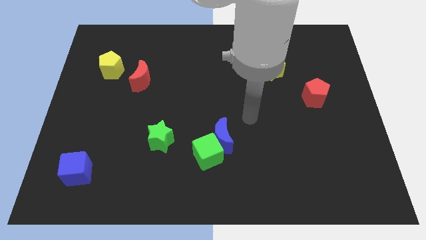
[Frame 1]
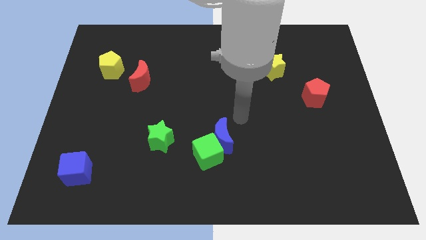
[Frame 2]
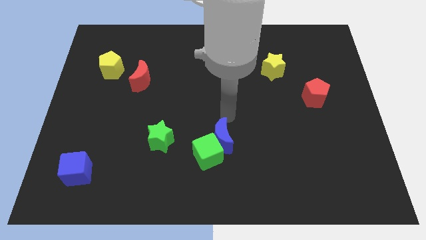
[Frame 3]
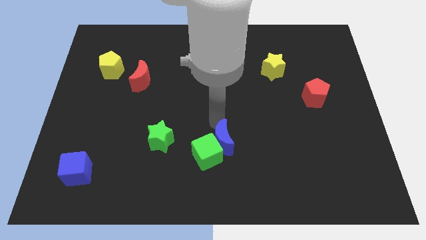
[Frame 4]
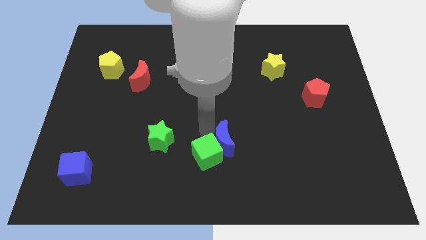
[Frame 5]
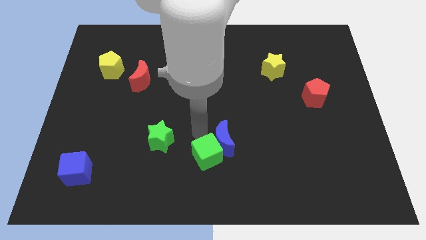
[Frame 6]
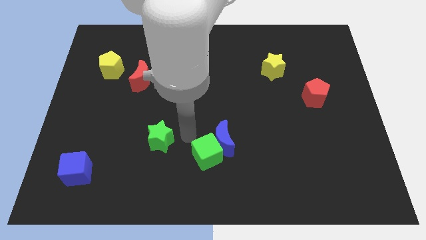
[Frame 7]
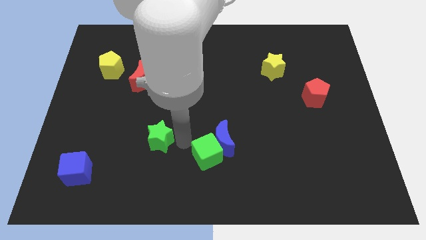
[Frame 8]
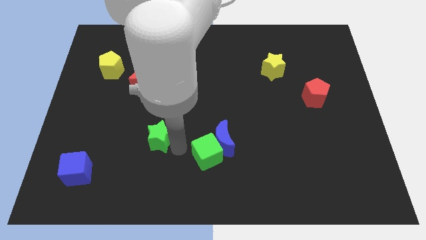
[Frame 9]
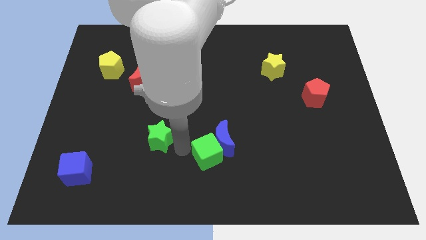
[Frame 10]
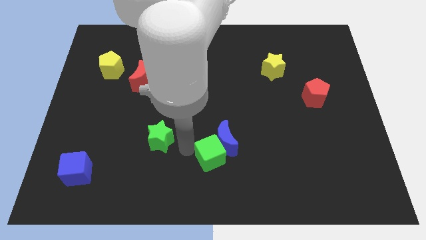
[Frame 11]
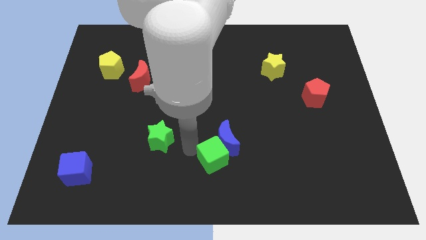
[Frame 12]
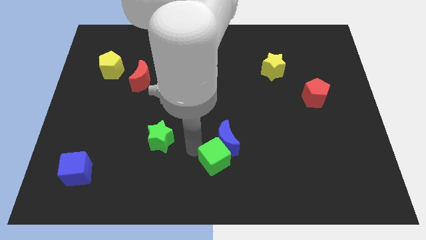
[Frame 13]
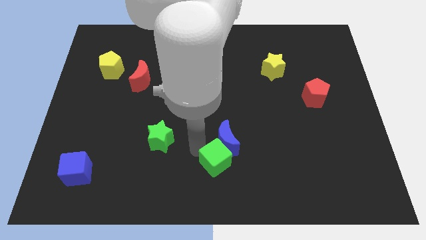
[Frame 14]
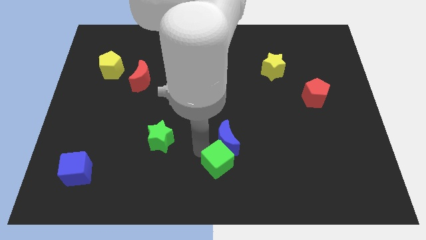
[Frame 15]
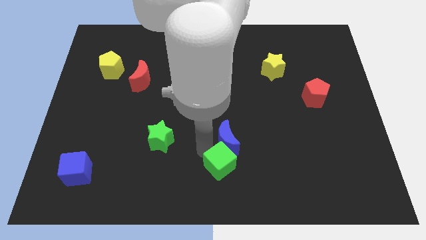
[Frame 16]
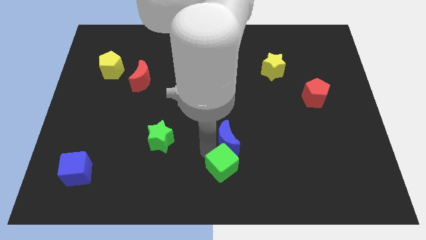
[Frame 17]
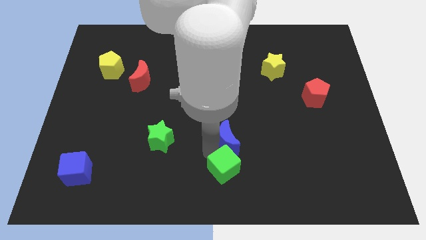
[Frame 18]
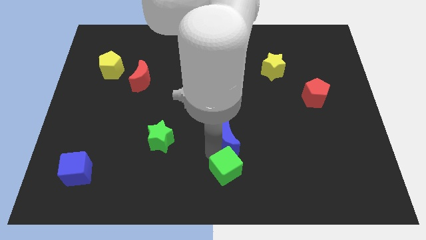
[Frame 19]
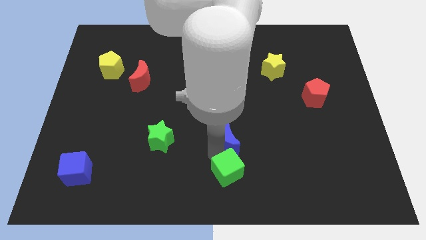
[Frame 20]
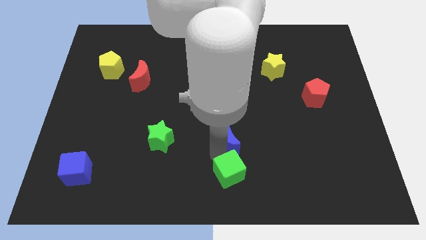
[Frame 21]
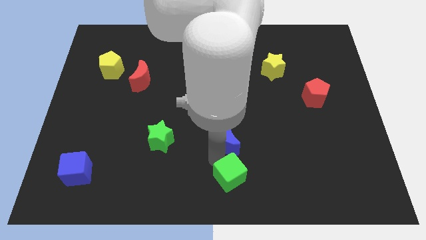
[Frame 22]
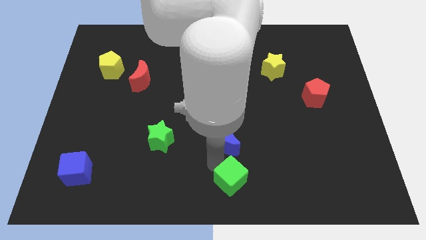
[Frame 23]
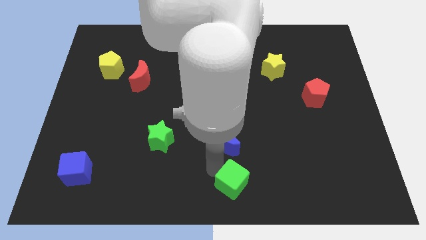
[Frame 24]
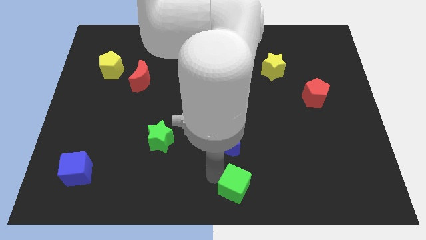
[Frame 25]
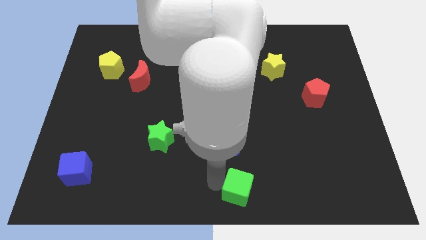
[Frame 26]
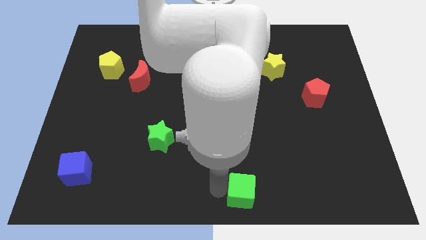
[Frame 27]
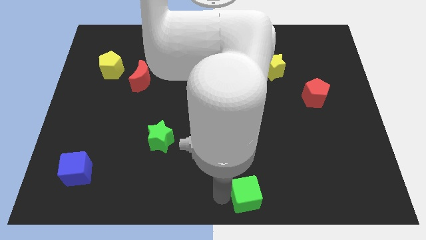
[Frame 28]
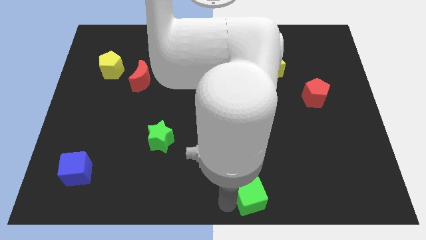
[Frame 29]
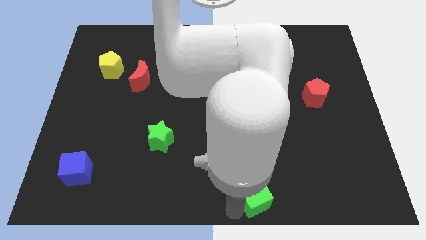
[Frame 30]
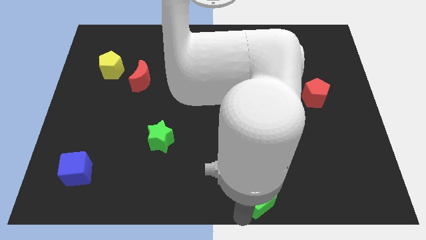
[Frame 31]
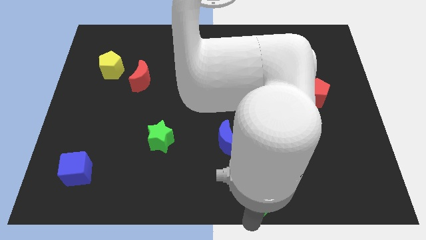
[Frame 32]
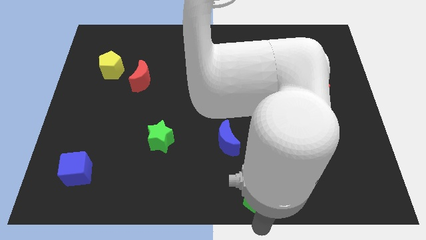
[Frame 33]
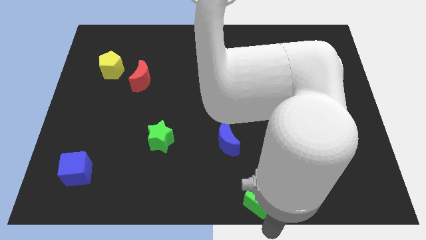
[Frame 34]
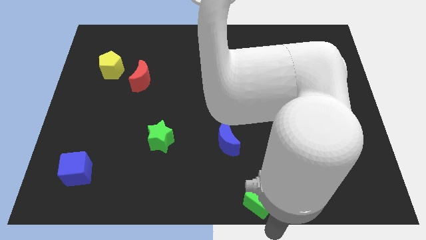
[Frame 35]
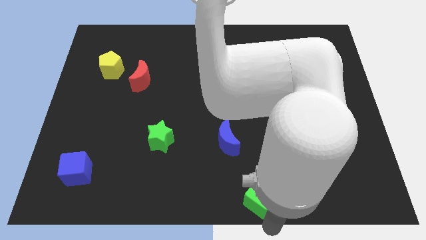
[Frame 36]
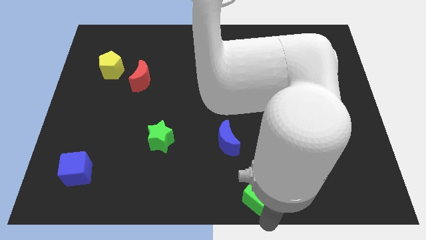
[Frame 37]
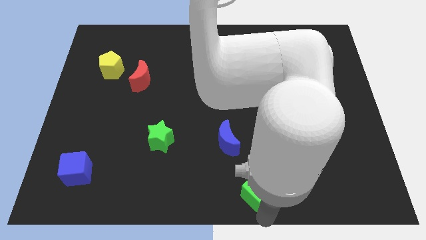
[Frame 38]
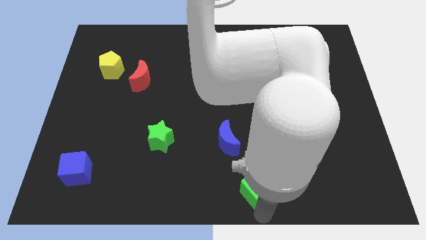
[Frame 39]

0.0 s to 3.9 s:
push the green cube right a little bit

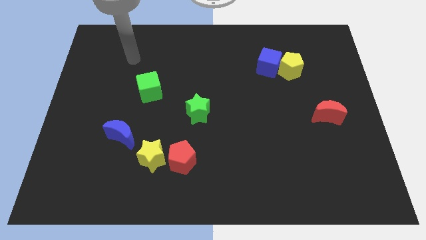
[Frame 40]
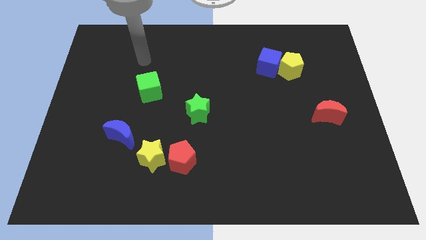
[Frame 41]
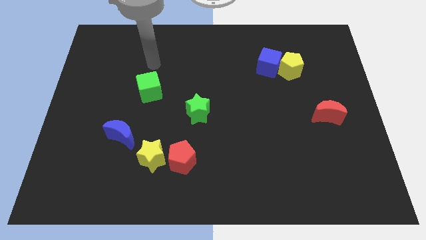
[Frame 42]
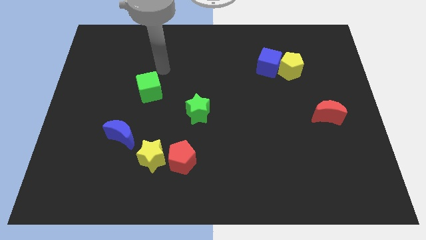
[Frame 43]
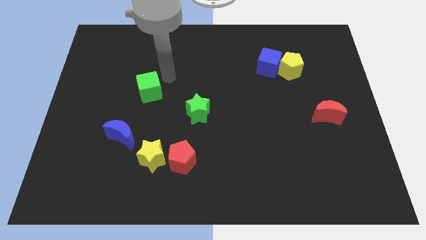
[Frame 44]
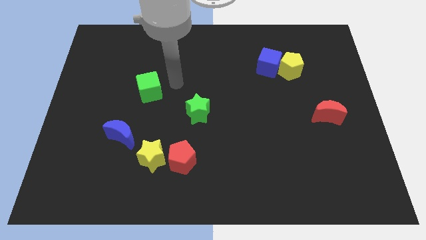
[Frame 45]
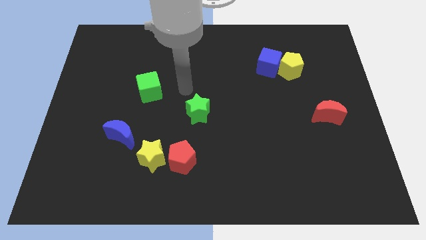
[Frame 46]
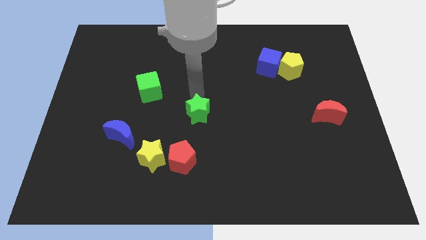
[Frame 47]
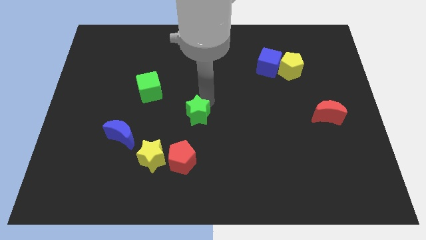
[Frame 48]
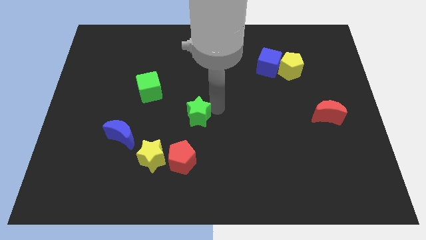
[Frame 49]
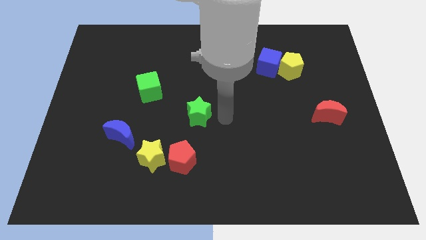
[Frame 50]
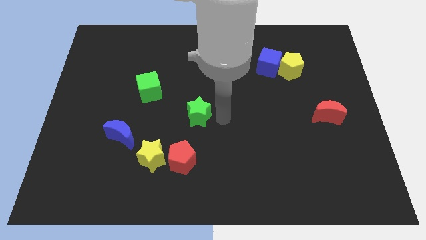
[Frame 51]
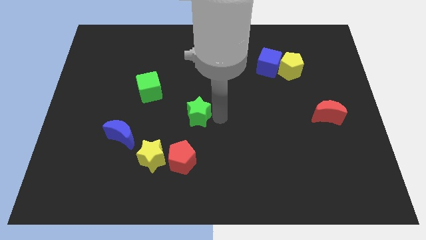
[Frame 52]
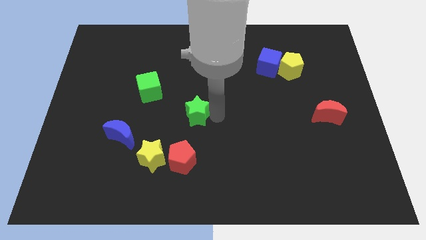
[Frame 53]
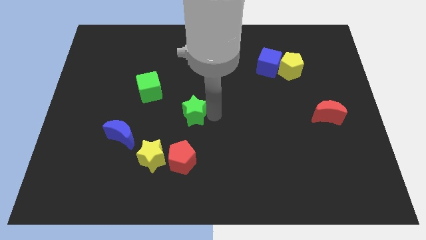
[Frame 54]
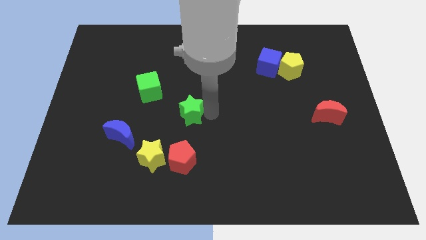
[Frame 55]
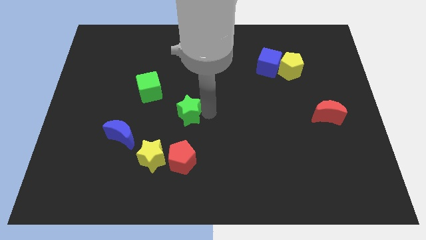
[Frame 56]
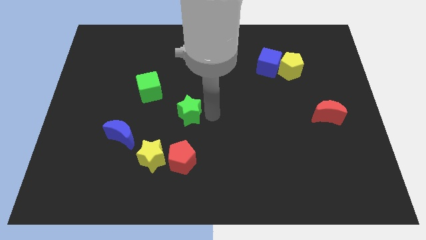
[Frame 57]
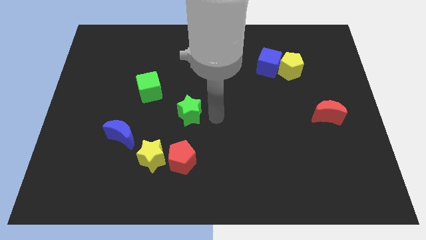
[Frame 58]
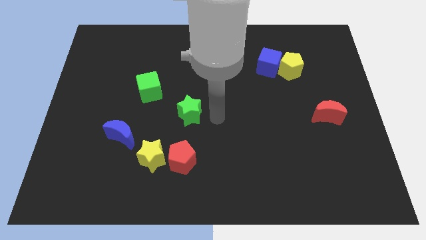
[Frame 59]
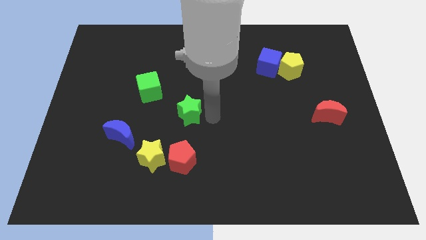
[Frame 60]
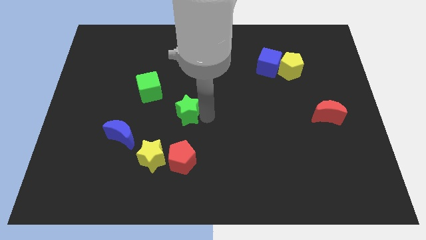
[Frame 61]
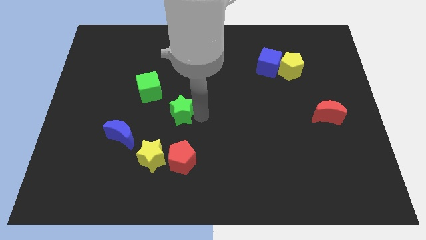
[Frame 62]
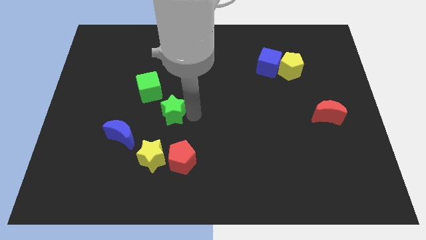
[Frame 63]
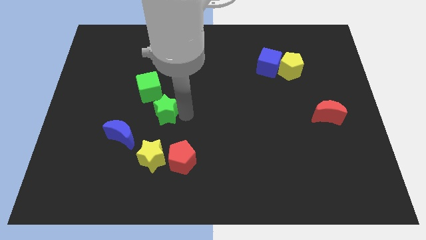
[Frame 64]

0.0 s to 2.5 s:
move the green star left a little

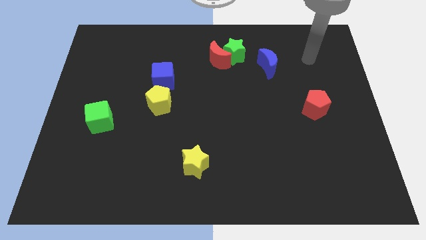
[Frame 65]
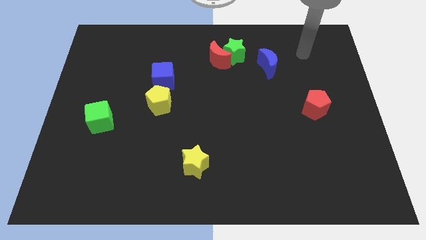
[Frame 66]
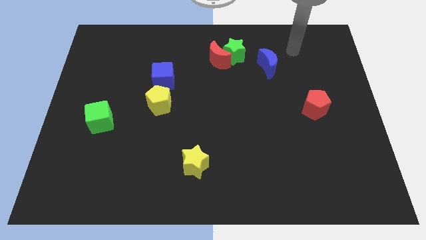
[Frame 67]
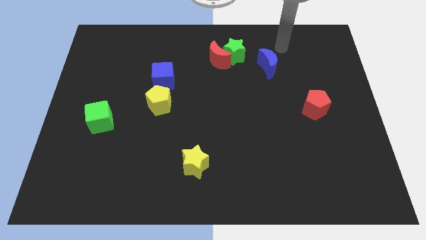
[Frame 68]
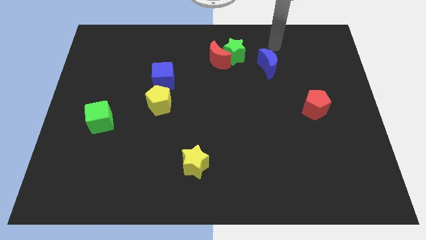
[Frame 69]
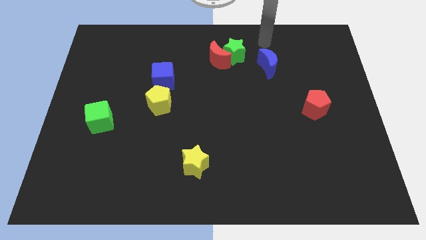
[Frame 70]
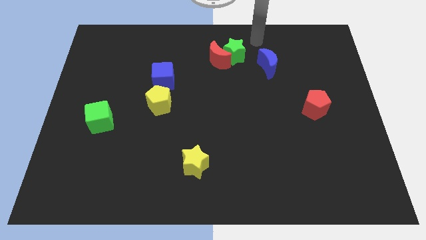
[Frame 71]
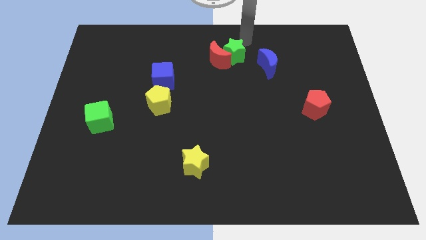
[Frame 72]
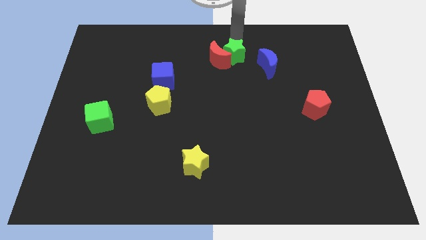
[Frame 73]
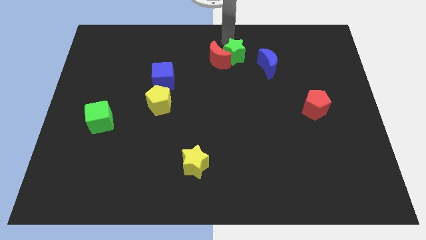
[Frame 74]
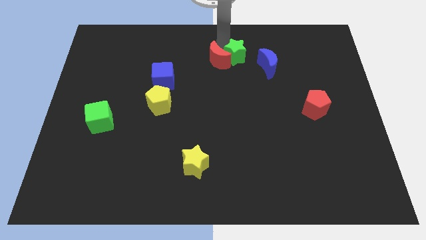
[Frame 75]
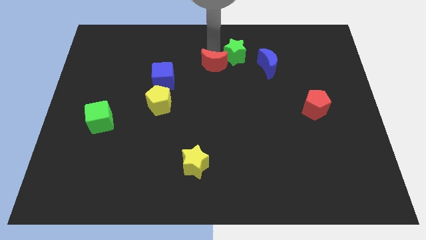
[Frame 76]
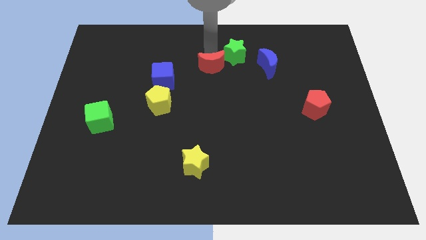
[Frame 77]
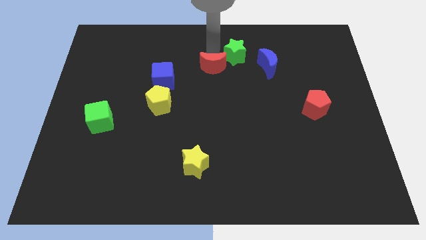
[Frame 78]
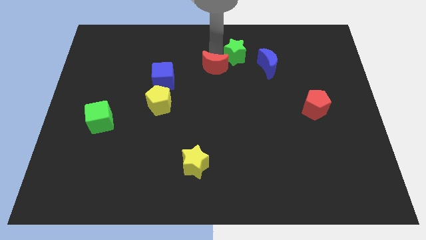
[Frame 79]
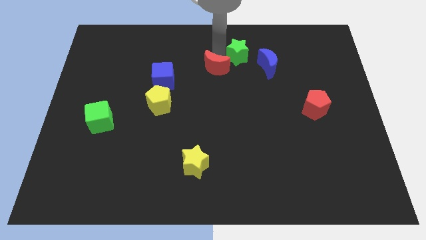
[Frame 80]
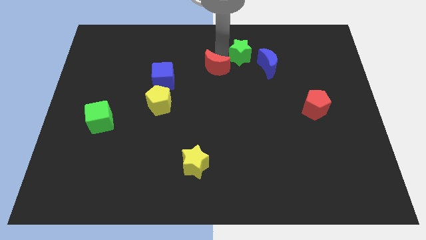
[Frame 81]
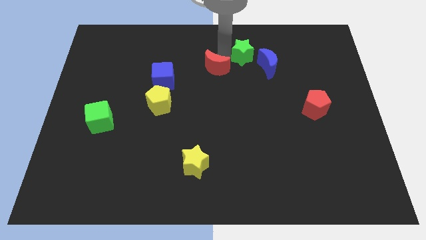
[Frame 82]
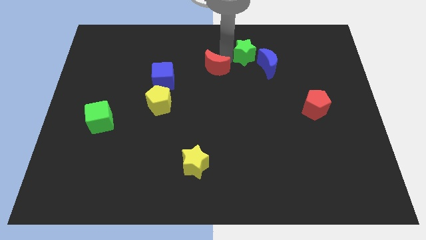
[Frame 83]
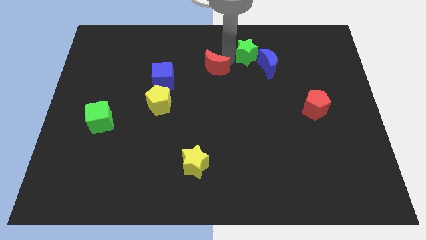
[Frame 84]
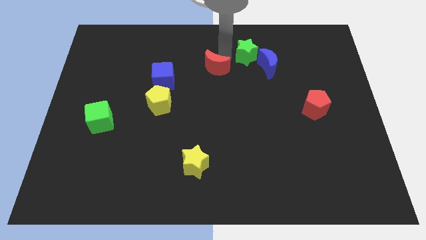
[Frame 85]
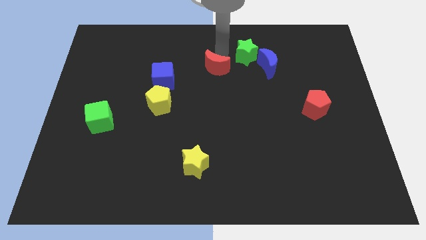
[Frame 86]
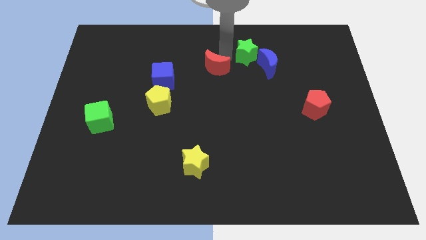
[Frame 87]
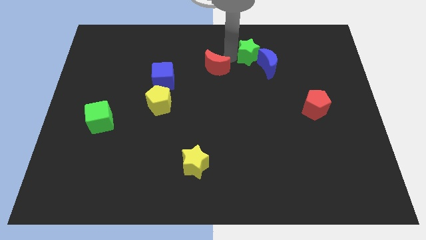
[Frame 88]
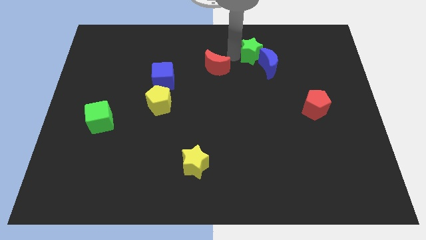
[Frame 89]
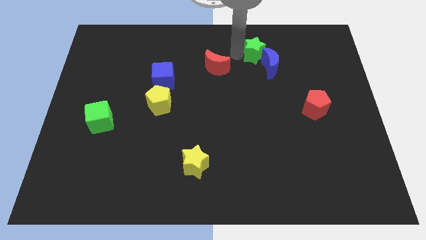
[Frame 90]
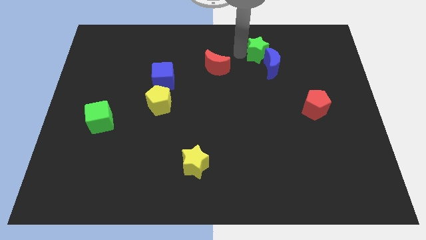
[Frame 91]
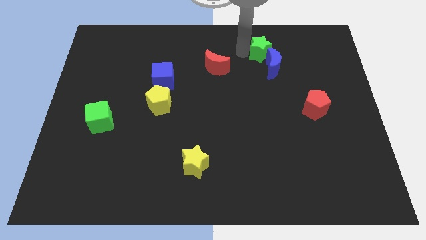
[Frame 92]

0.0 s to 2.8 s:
slightly push the green star right
